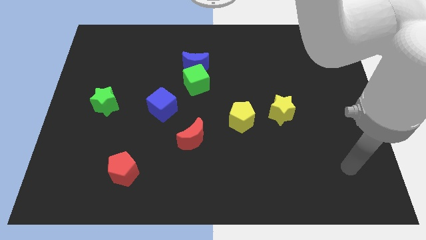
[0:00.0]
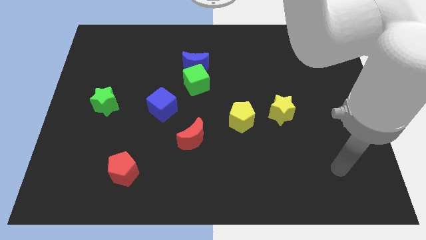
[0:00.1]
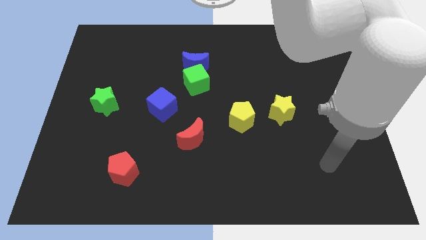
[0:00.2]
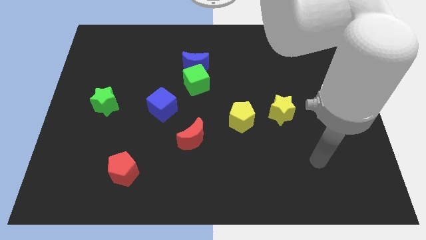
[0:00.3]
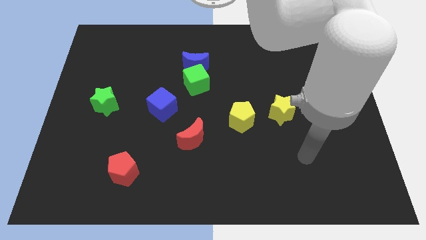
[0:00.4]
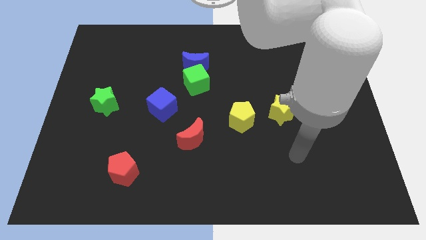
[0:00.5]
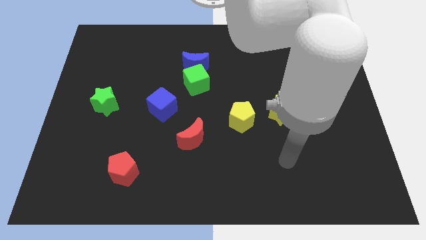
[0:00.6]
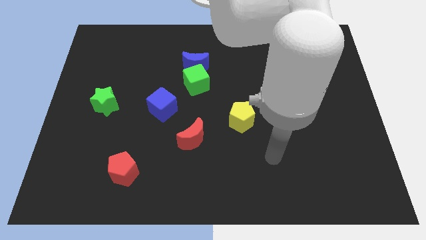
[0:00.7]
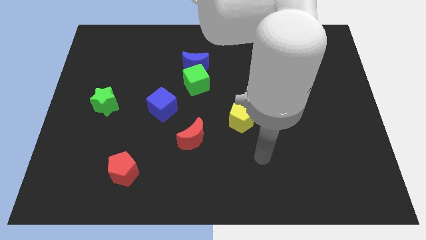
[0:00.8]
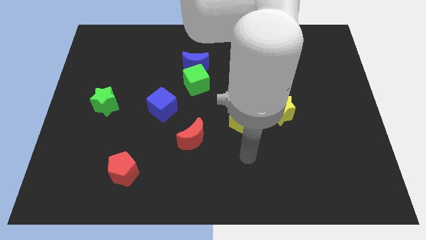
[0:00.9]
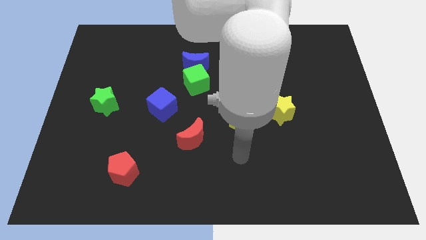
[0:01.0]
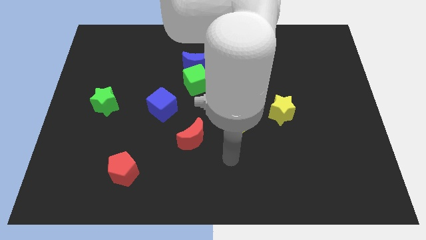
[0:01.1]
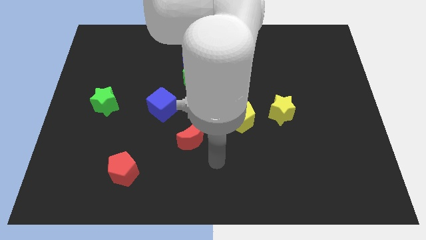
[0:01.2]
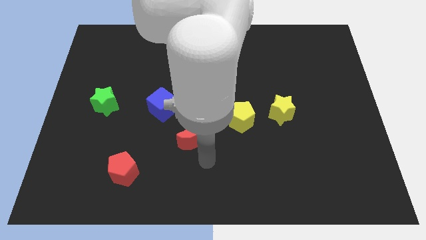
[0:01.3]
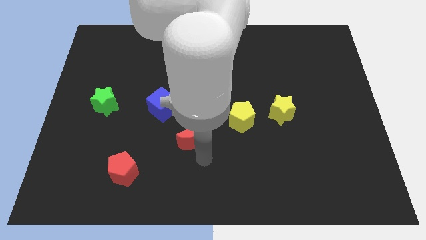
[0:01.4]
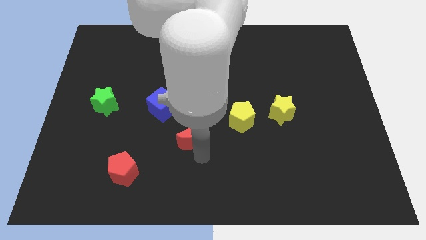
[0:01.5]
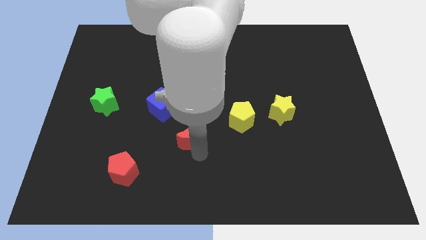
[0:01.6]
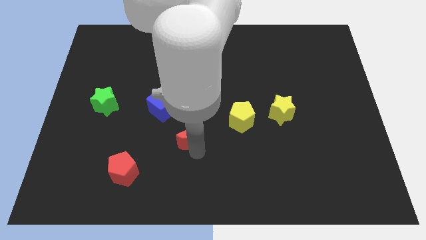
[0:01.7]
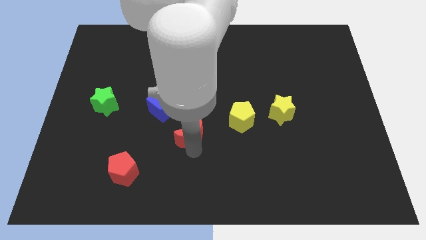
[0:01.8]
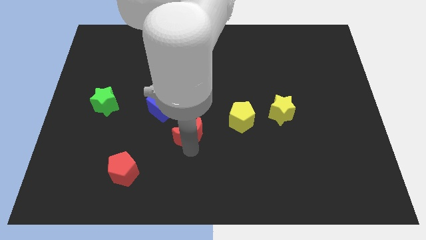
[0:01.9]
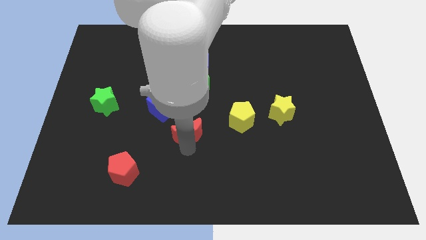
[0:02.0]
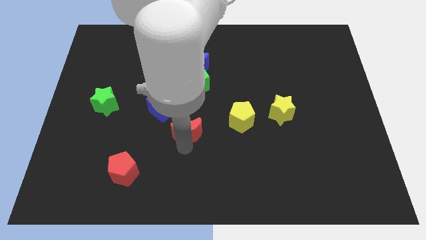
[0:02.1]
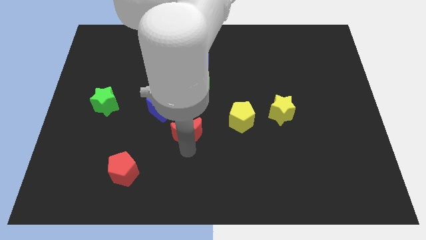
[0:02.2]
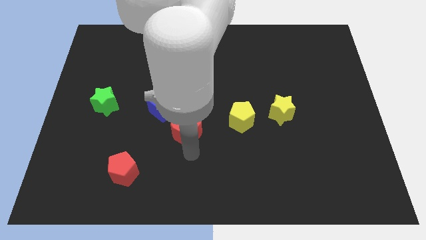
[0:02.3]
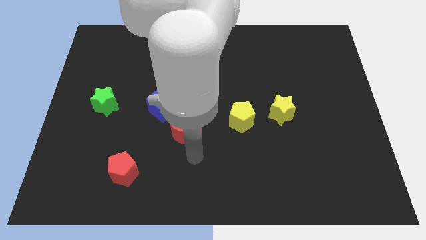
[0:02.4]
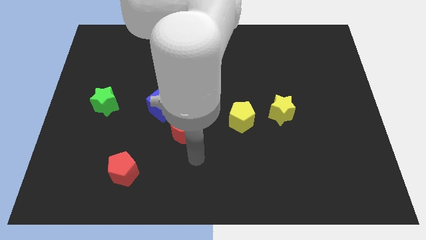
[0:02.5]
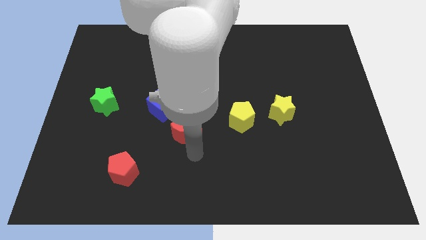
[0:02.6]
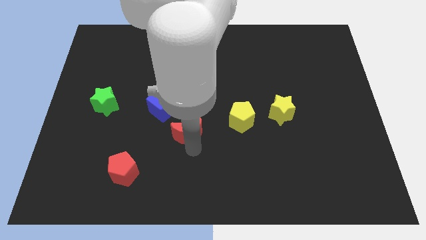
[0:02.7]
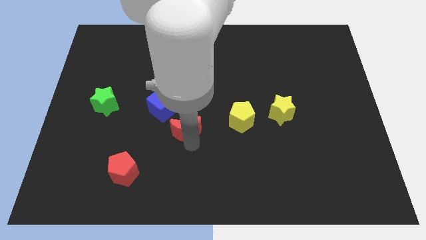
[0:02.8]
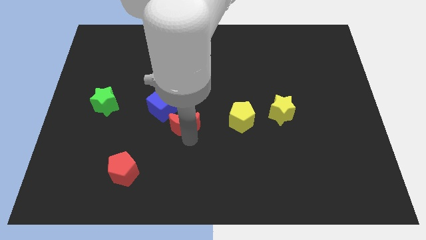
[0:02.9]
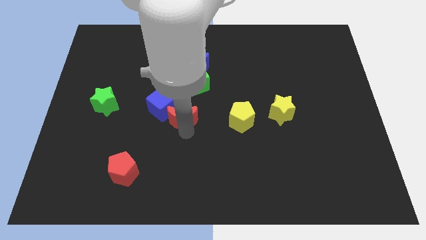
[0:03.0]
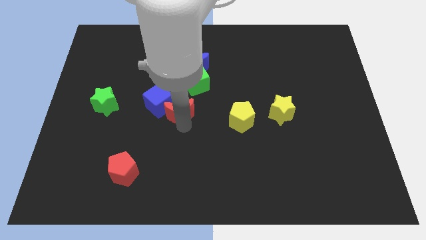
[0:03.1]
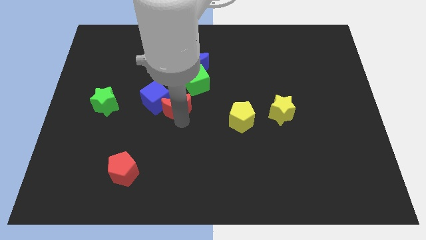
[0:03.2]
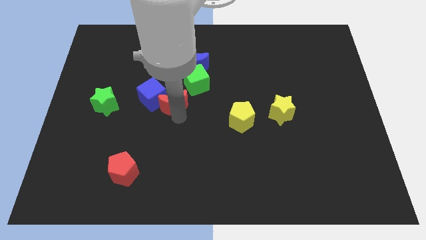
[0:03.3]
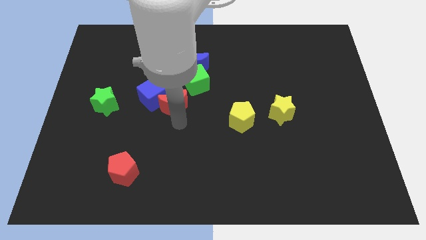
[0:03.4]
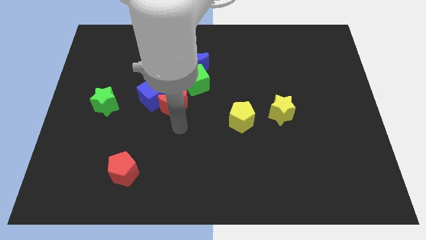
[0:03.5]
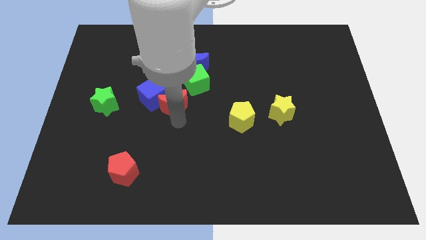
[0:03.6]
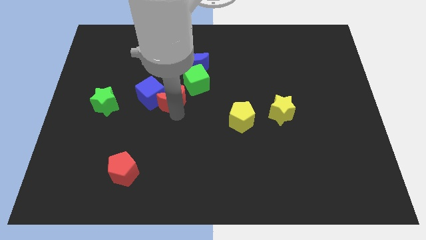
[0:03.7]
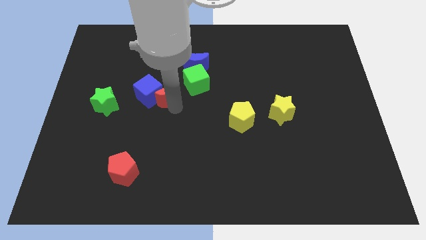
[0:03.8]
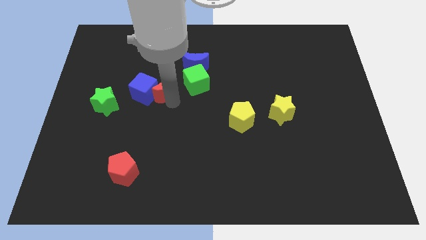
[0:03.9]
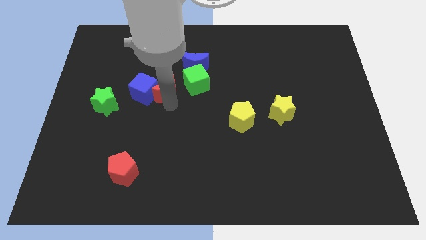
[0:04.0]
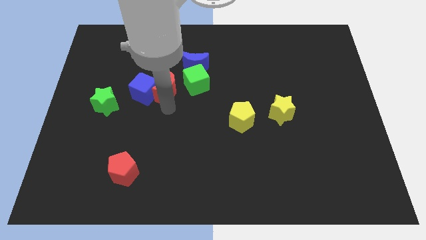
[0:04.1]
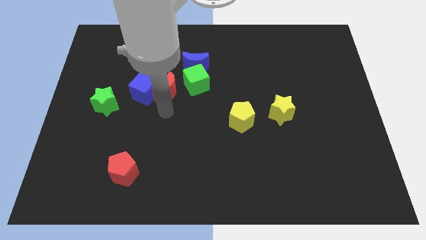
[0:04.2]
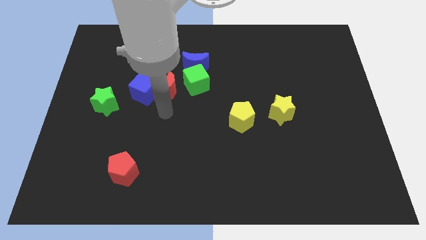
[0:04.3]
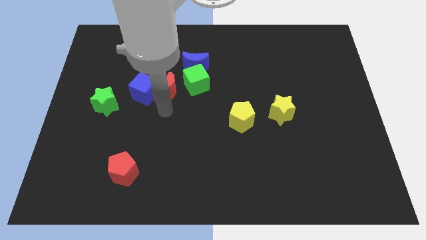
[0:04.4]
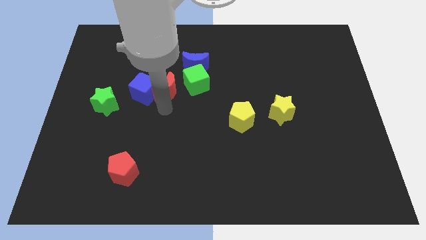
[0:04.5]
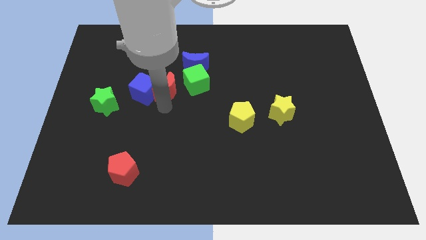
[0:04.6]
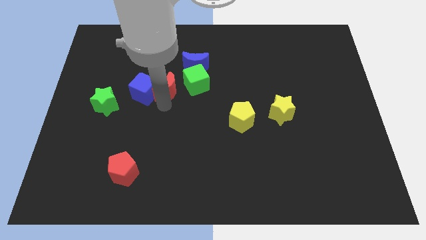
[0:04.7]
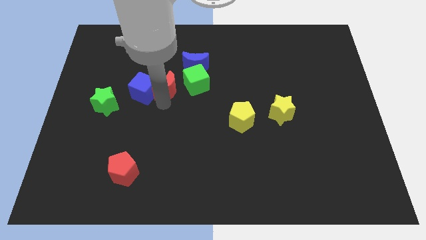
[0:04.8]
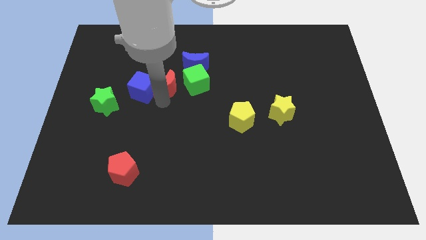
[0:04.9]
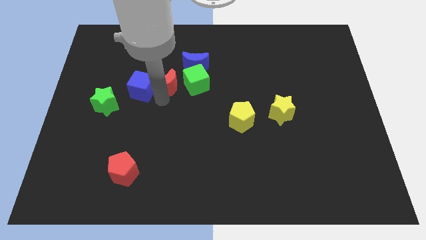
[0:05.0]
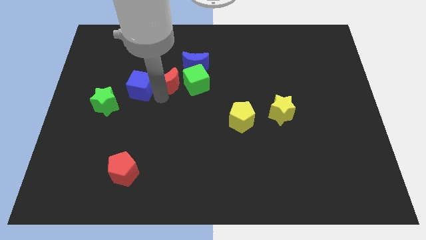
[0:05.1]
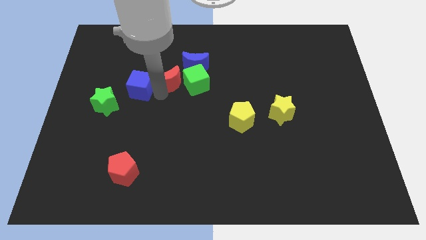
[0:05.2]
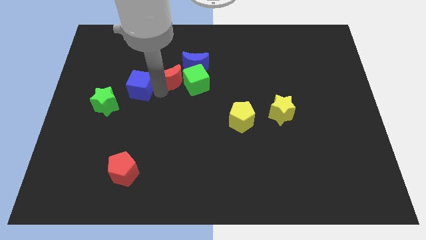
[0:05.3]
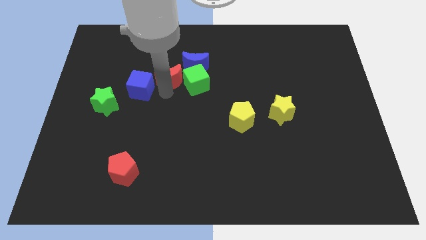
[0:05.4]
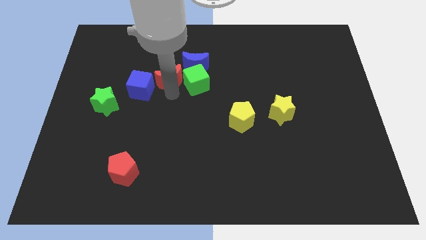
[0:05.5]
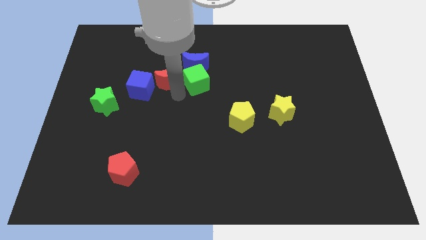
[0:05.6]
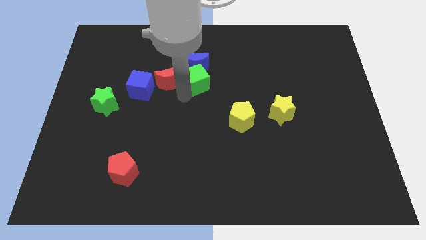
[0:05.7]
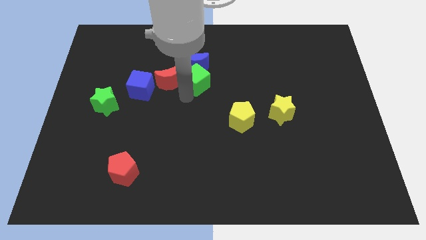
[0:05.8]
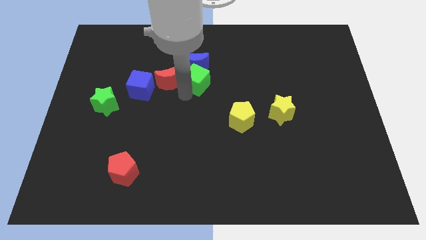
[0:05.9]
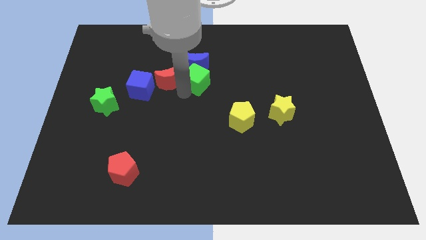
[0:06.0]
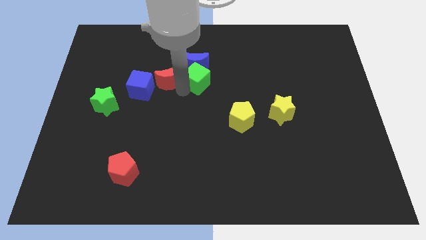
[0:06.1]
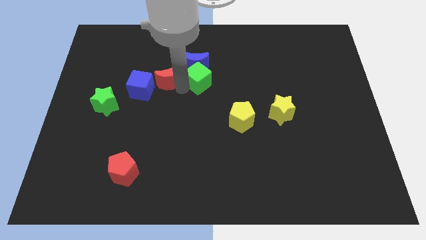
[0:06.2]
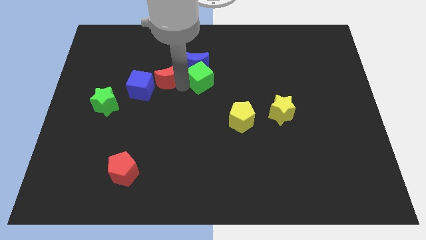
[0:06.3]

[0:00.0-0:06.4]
slide the red moon to the left of the blue moon

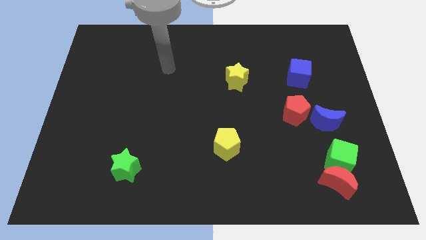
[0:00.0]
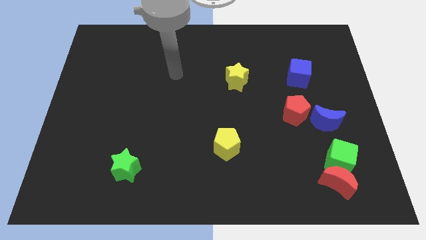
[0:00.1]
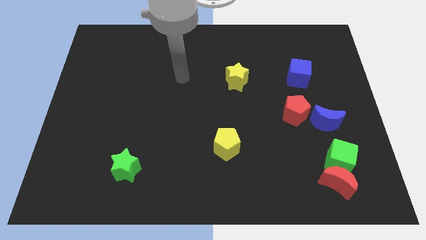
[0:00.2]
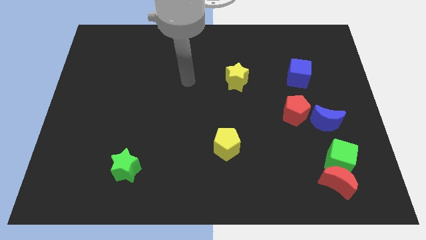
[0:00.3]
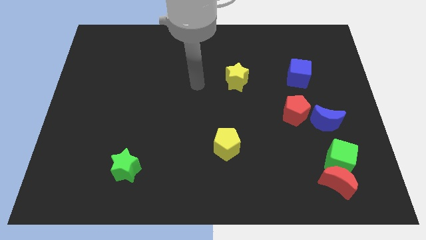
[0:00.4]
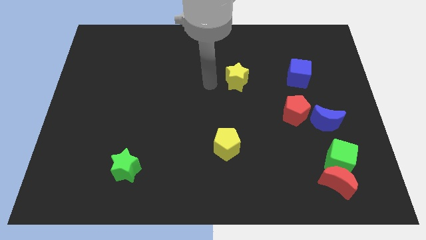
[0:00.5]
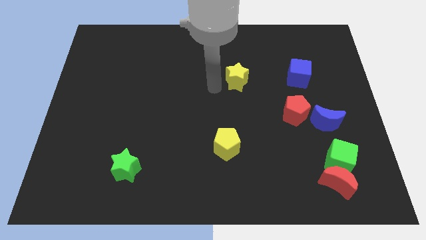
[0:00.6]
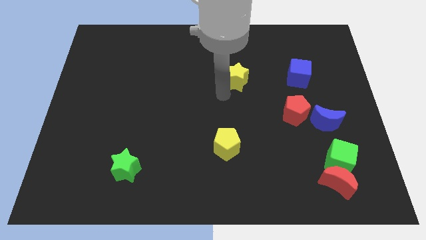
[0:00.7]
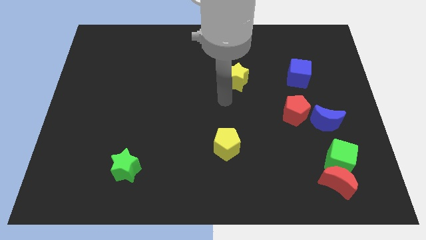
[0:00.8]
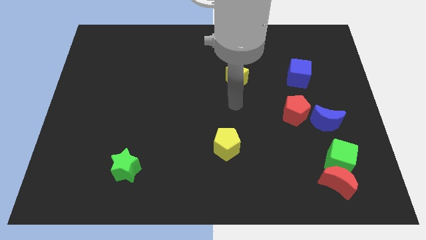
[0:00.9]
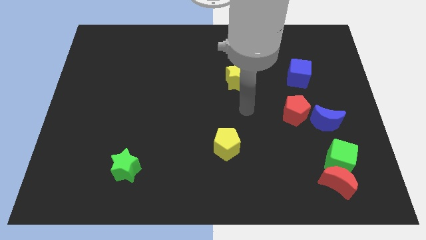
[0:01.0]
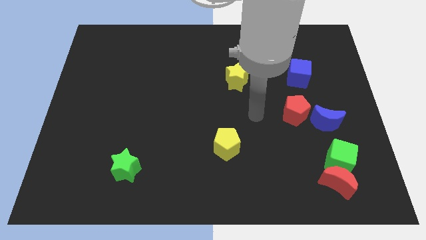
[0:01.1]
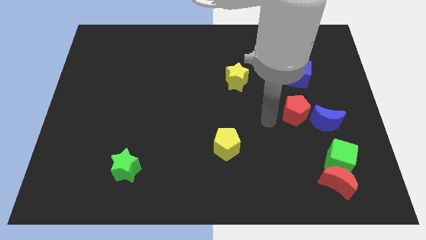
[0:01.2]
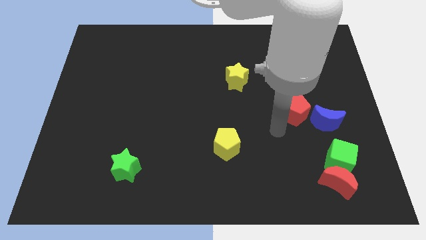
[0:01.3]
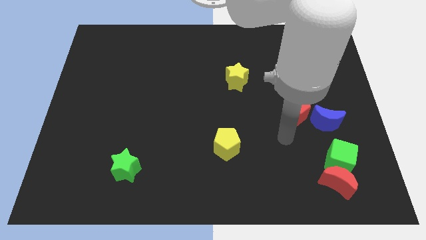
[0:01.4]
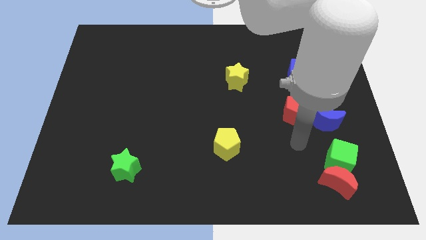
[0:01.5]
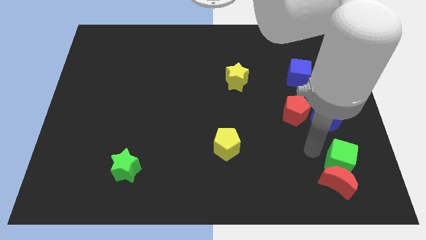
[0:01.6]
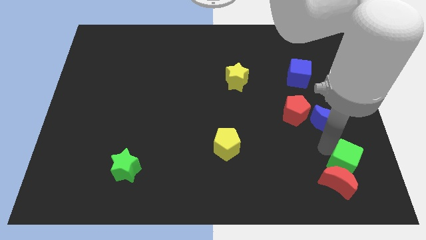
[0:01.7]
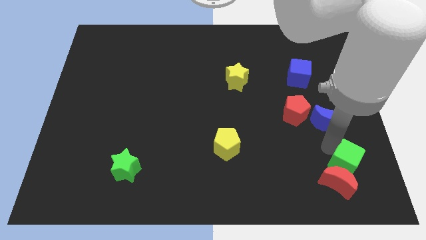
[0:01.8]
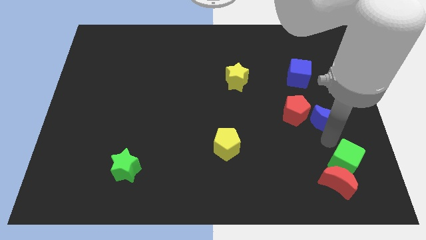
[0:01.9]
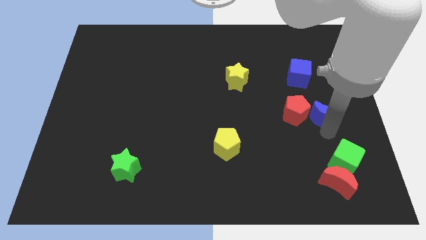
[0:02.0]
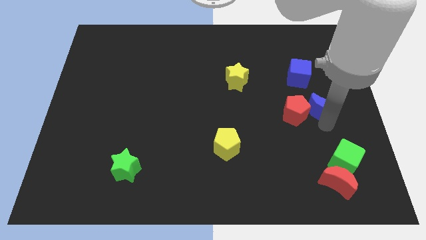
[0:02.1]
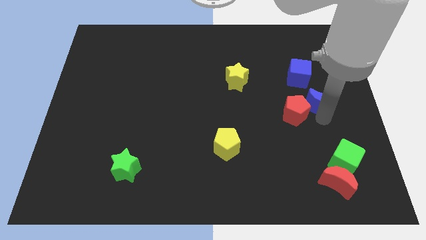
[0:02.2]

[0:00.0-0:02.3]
push the blue moon to the bottom right side of the blue cube
